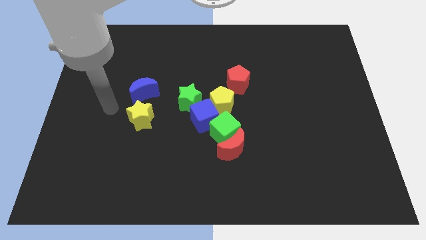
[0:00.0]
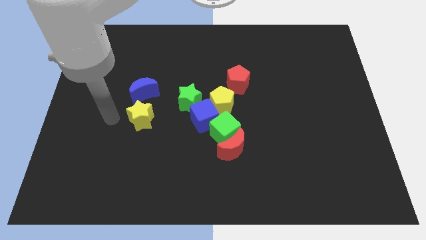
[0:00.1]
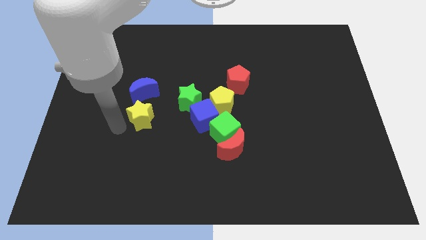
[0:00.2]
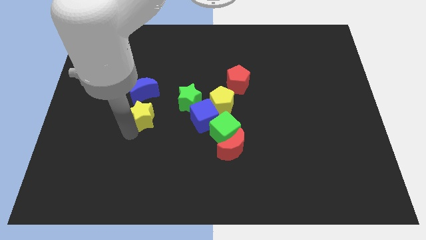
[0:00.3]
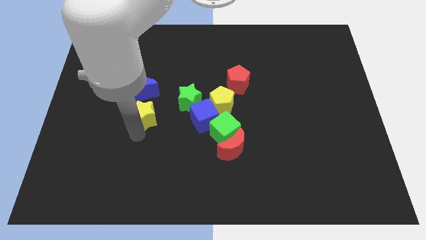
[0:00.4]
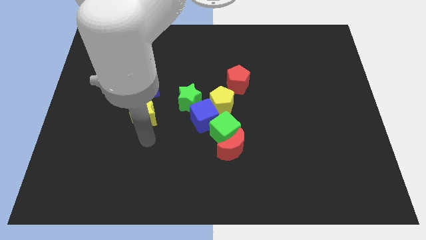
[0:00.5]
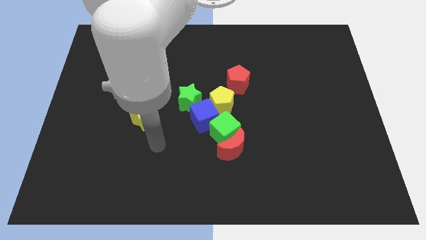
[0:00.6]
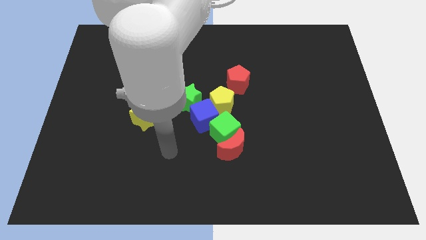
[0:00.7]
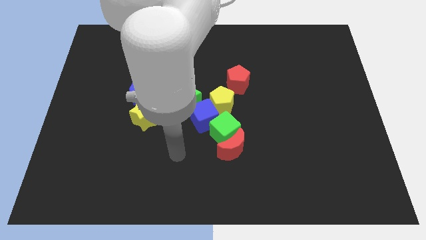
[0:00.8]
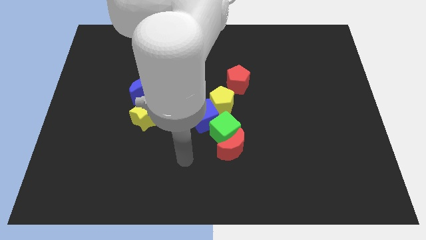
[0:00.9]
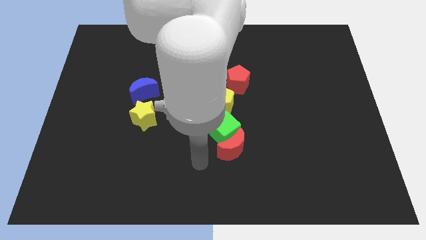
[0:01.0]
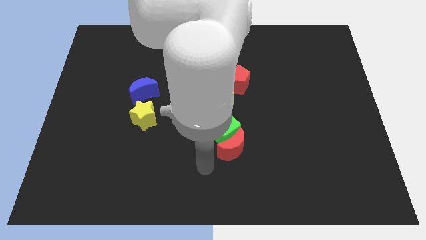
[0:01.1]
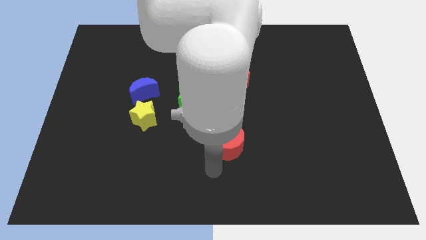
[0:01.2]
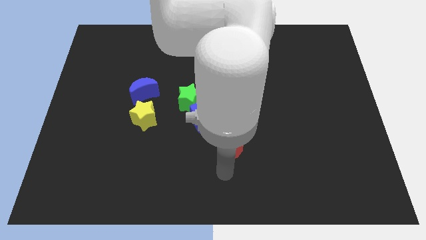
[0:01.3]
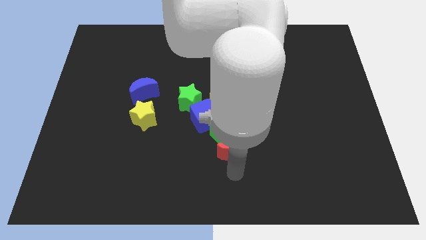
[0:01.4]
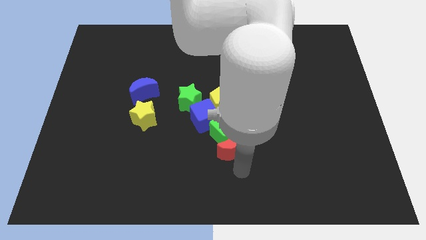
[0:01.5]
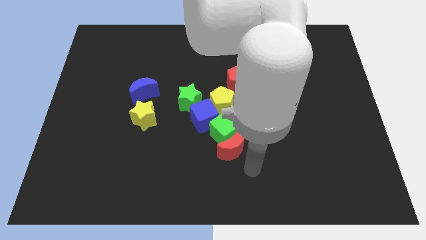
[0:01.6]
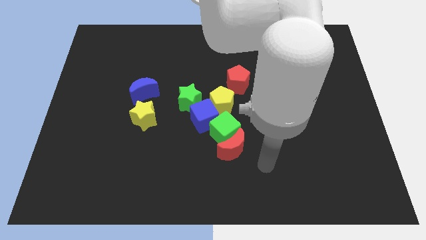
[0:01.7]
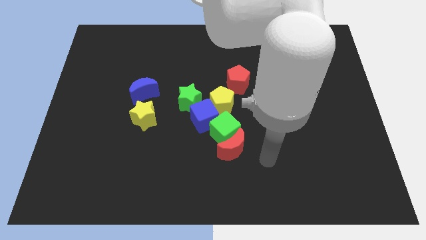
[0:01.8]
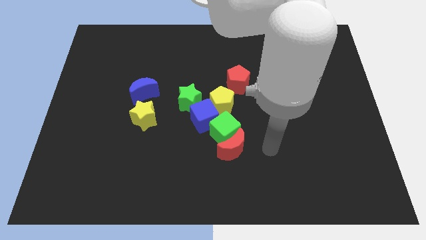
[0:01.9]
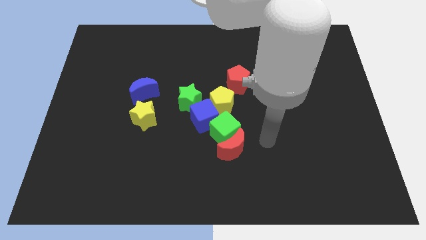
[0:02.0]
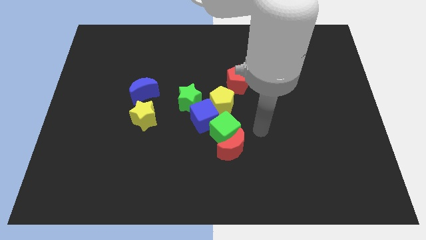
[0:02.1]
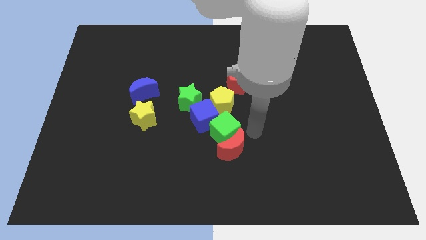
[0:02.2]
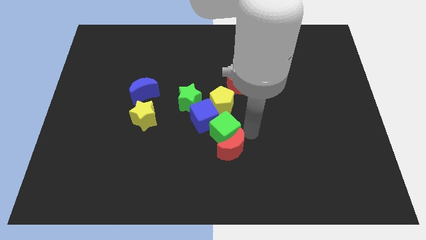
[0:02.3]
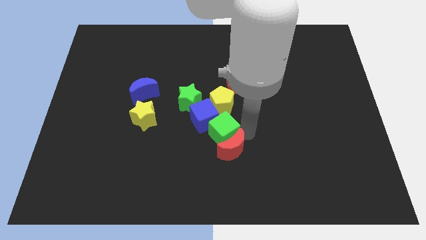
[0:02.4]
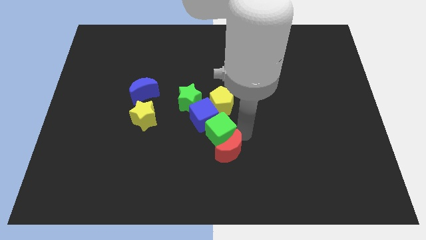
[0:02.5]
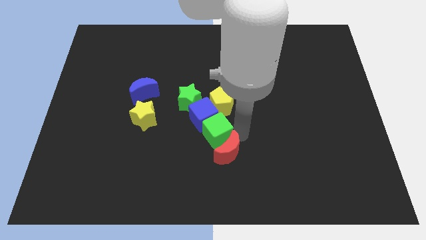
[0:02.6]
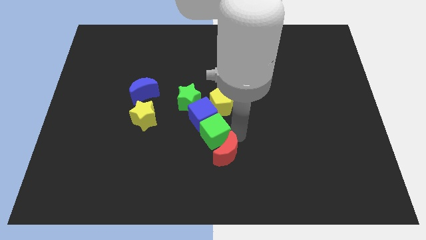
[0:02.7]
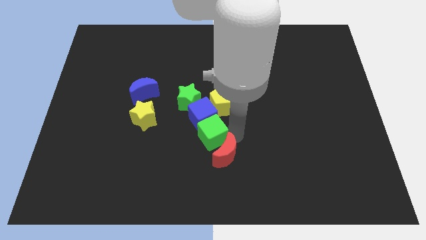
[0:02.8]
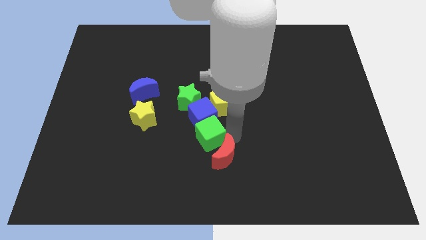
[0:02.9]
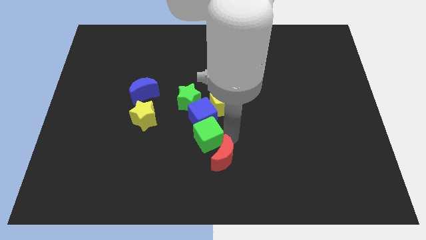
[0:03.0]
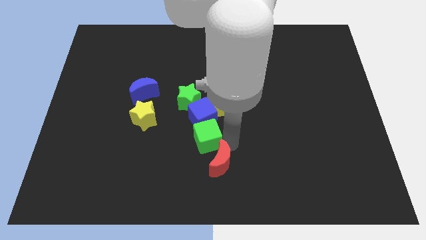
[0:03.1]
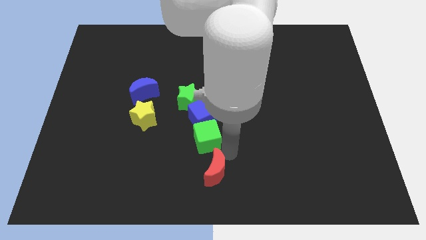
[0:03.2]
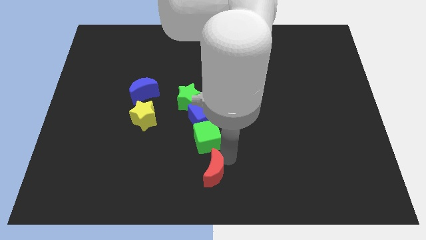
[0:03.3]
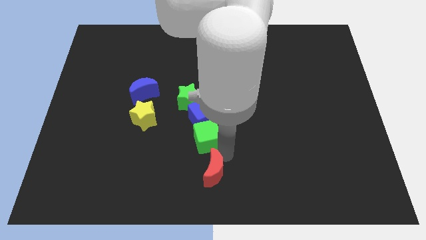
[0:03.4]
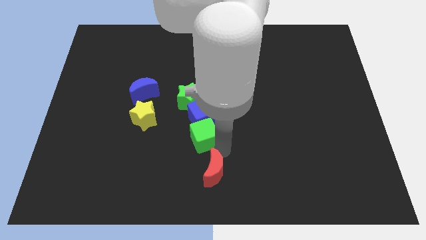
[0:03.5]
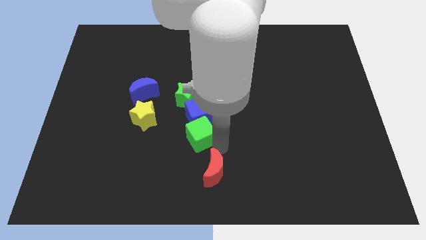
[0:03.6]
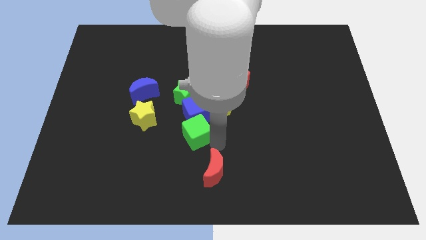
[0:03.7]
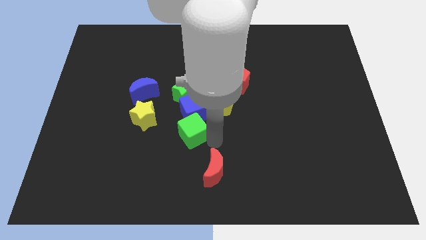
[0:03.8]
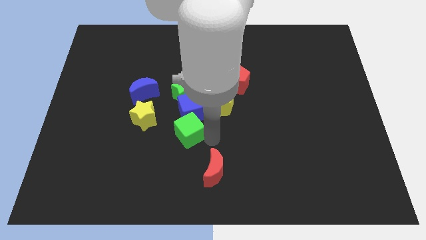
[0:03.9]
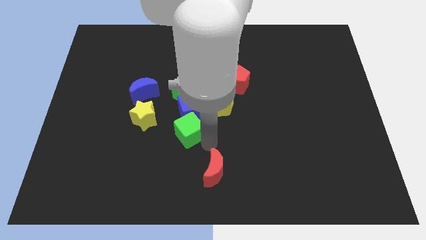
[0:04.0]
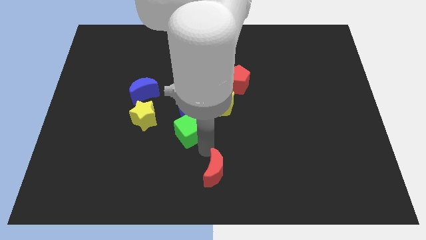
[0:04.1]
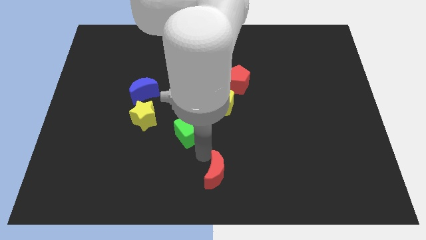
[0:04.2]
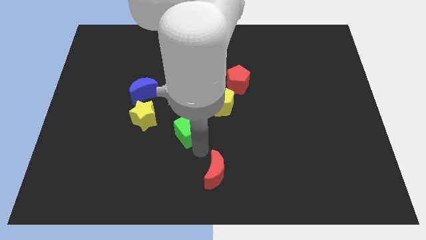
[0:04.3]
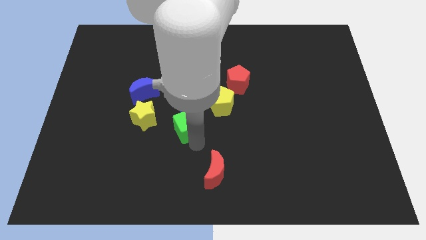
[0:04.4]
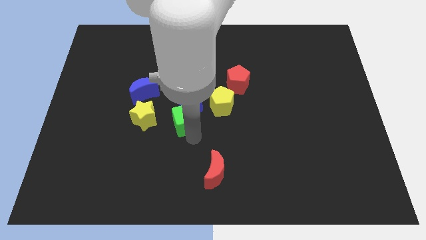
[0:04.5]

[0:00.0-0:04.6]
slightly slide the green cube up and then left

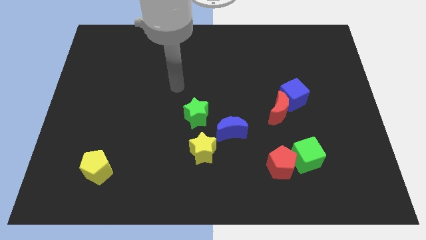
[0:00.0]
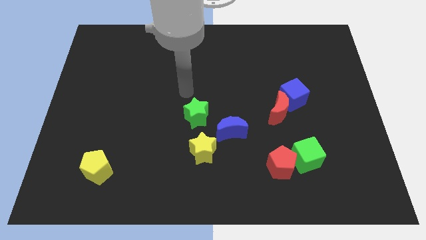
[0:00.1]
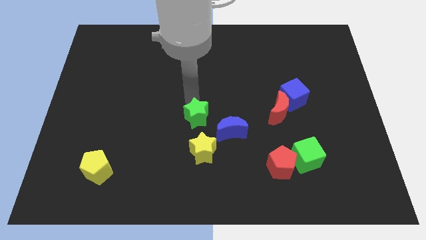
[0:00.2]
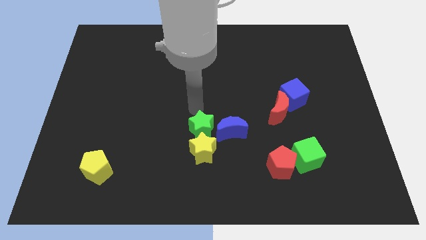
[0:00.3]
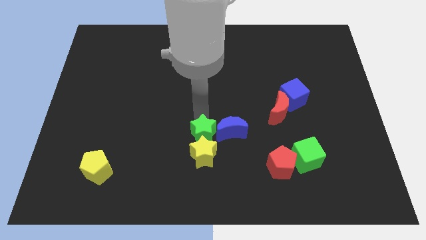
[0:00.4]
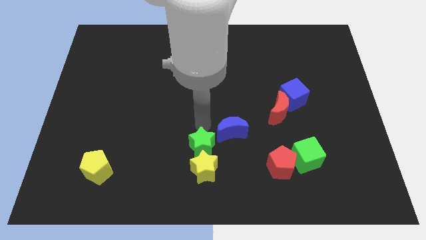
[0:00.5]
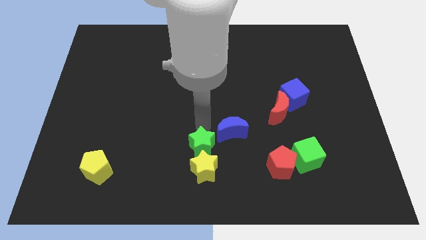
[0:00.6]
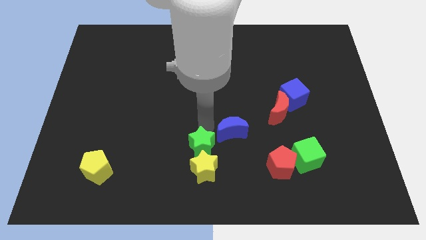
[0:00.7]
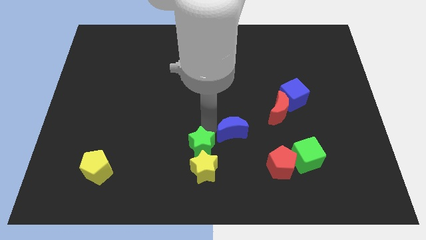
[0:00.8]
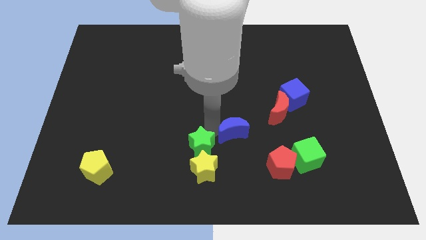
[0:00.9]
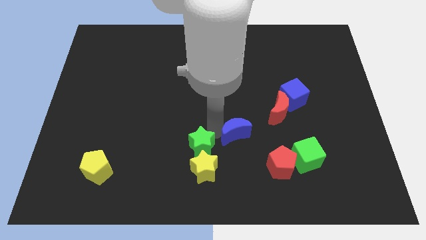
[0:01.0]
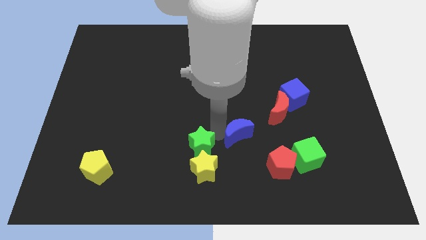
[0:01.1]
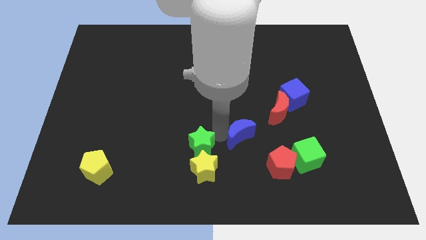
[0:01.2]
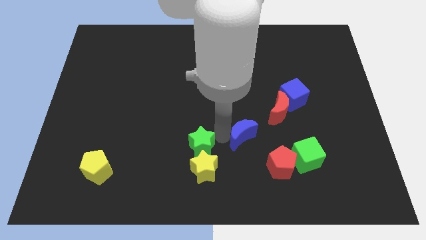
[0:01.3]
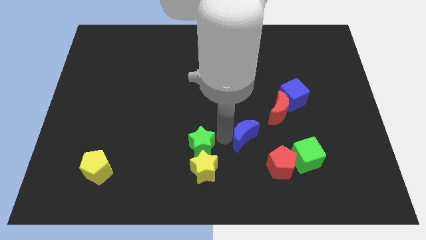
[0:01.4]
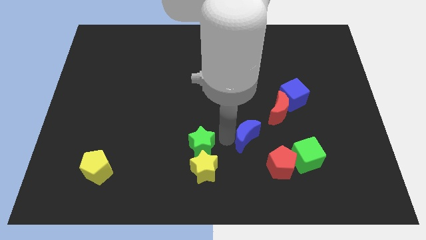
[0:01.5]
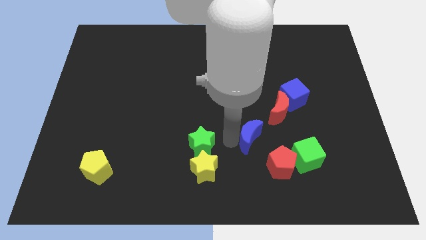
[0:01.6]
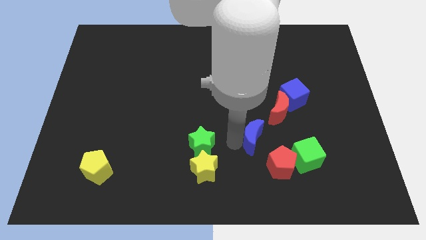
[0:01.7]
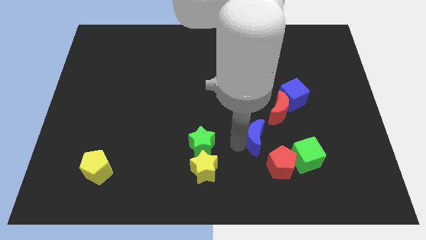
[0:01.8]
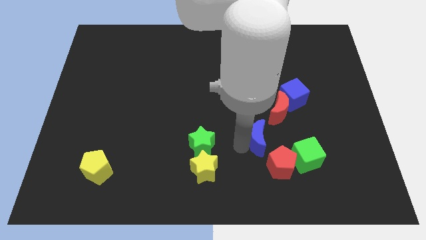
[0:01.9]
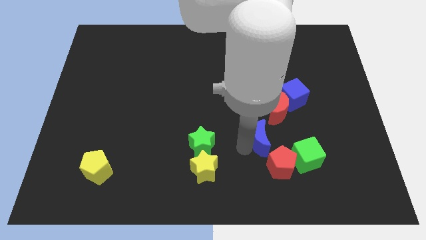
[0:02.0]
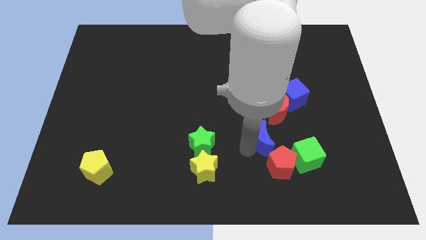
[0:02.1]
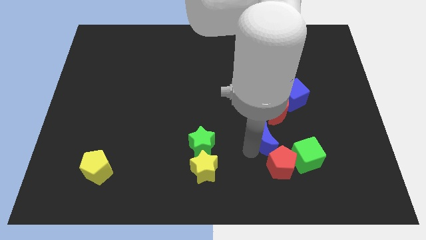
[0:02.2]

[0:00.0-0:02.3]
push the blue moon a little bit to the right

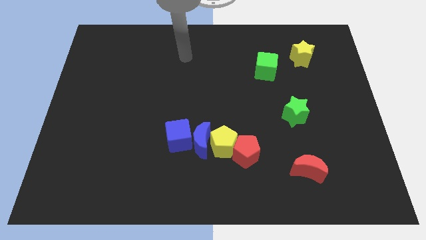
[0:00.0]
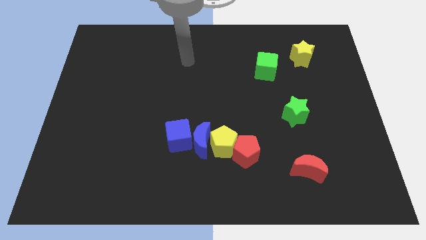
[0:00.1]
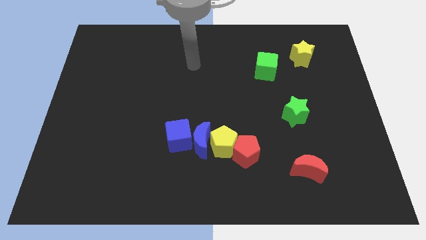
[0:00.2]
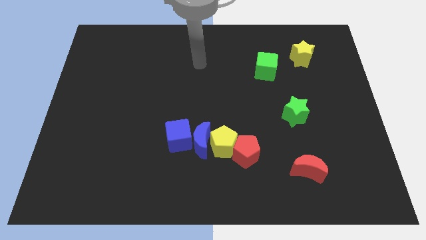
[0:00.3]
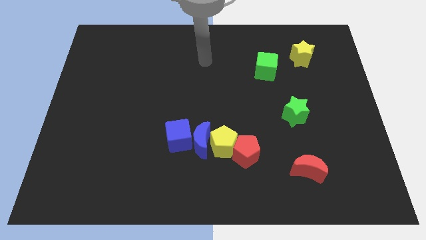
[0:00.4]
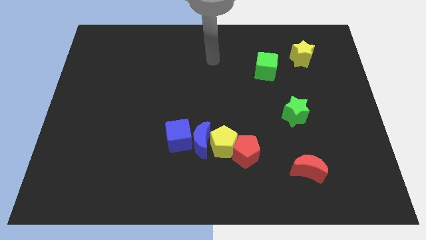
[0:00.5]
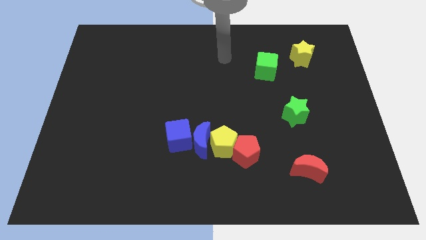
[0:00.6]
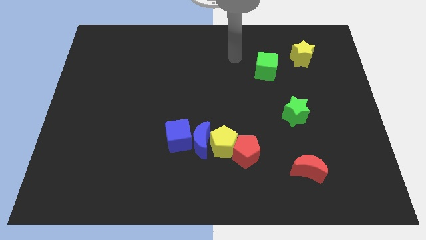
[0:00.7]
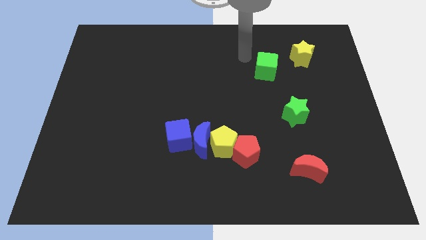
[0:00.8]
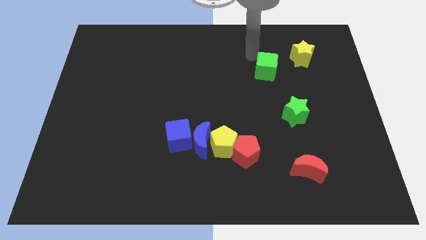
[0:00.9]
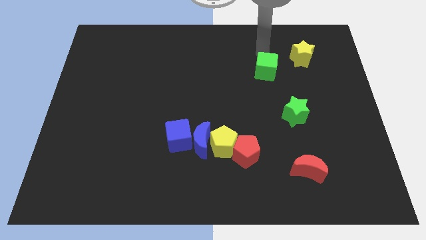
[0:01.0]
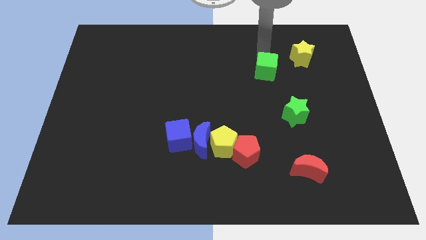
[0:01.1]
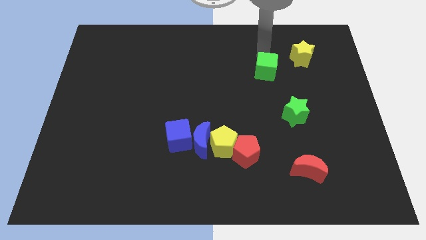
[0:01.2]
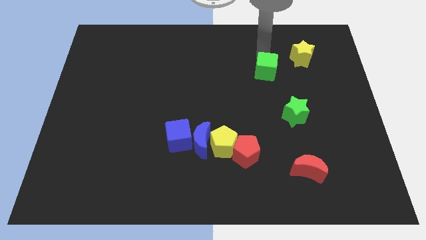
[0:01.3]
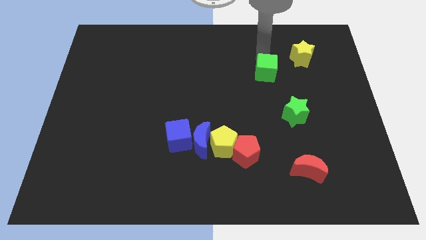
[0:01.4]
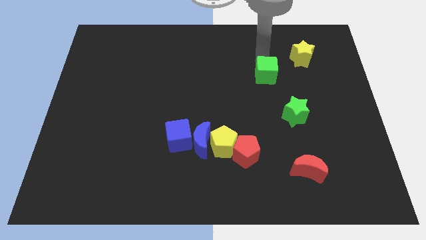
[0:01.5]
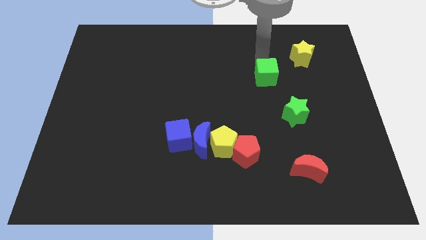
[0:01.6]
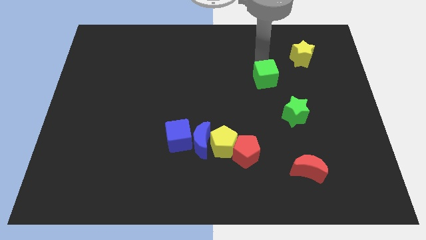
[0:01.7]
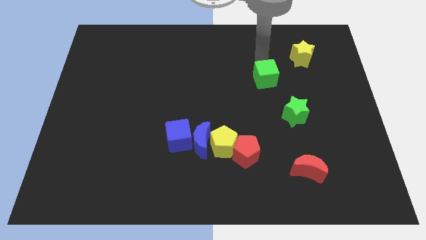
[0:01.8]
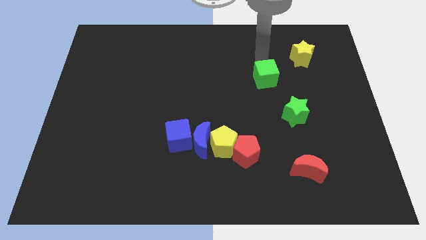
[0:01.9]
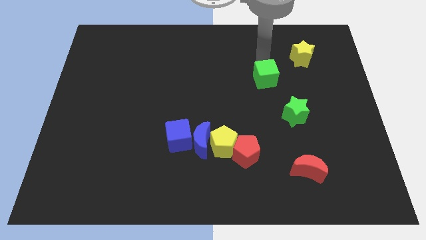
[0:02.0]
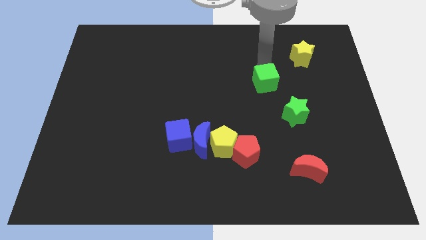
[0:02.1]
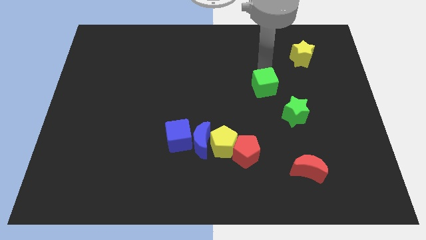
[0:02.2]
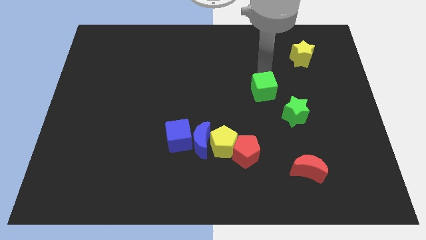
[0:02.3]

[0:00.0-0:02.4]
slide the green cube downwards slightly
